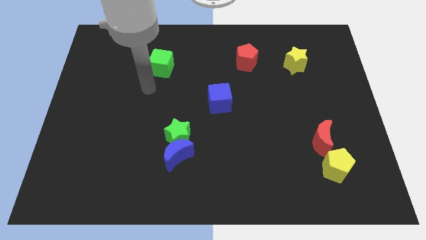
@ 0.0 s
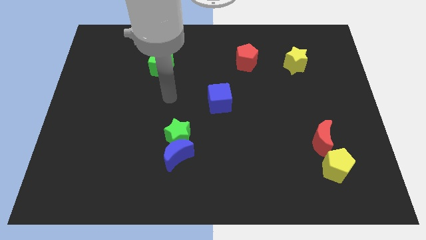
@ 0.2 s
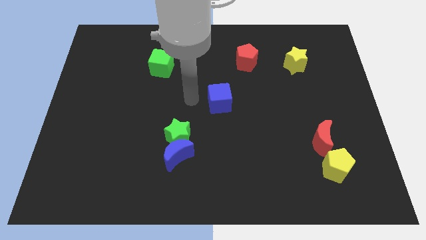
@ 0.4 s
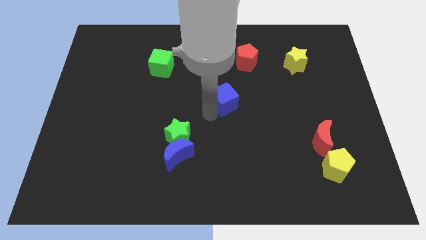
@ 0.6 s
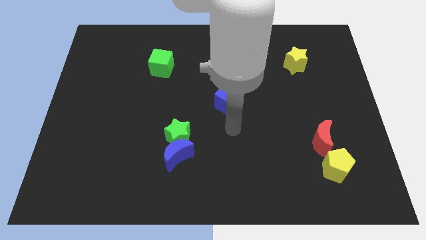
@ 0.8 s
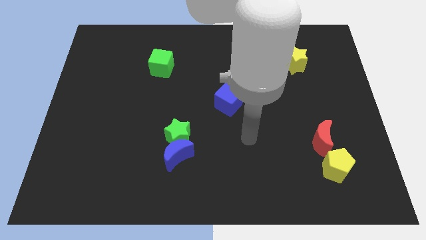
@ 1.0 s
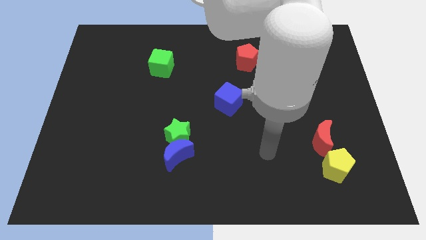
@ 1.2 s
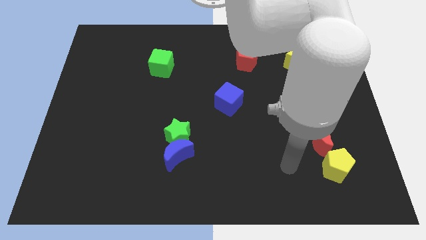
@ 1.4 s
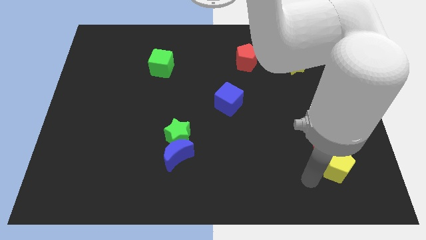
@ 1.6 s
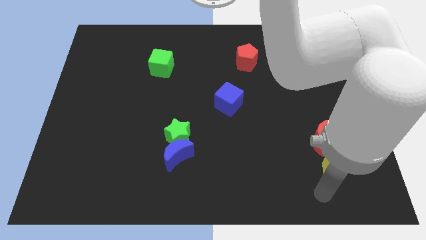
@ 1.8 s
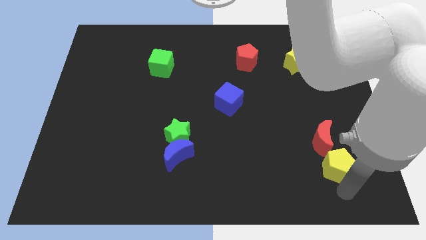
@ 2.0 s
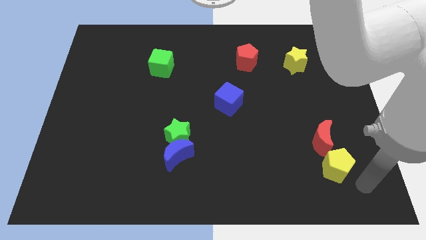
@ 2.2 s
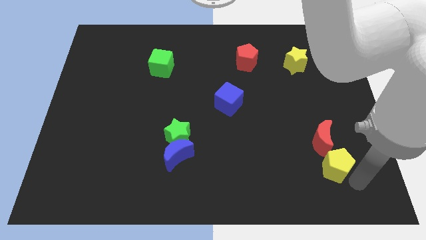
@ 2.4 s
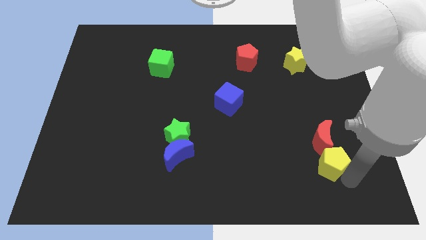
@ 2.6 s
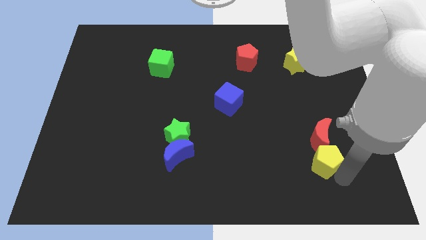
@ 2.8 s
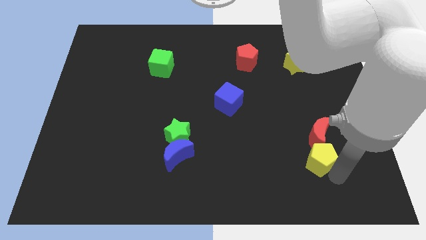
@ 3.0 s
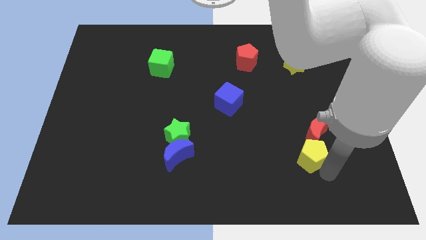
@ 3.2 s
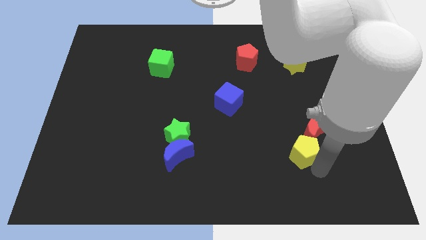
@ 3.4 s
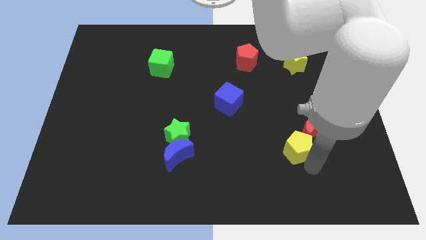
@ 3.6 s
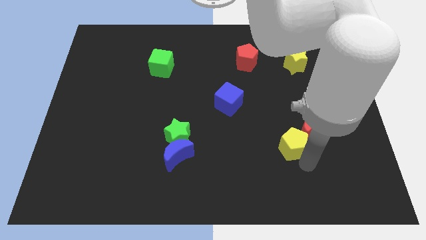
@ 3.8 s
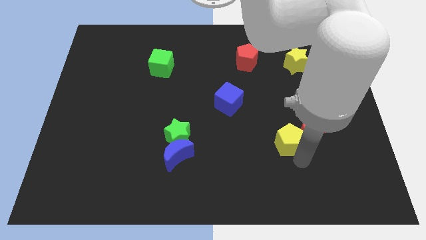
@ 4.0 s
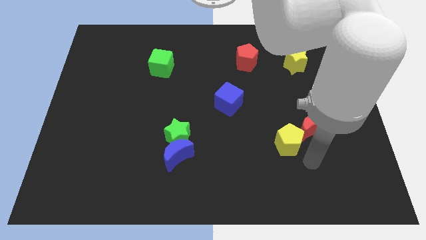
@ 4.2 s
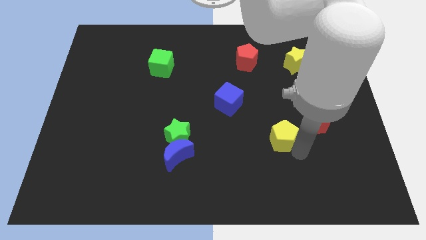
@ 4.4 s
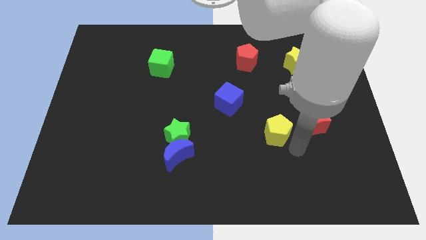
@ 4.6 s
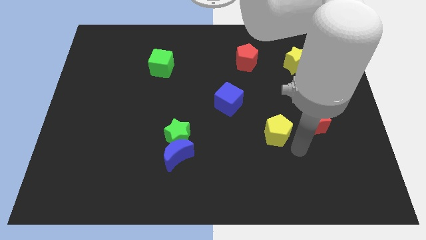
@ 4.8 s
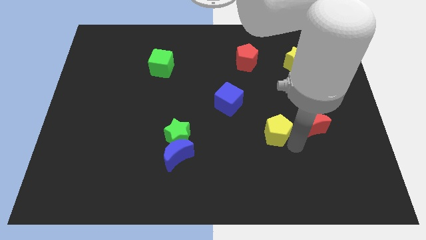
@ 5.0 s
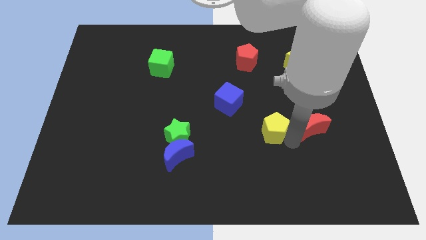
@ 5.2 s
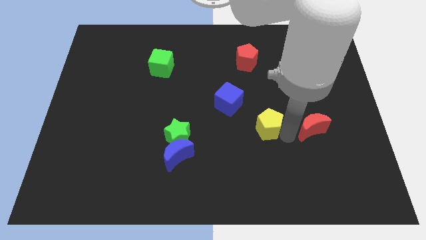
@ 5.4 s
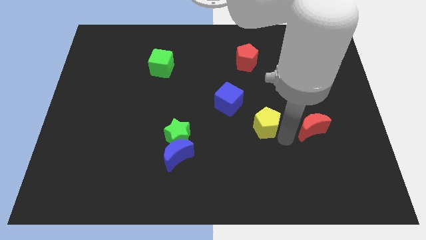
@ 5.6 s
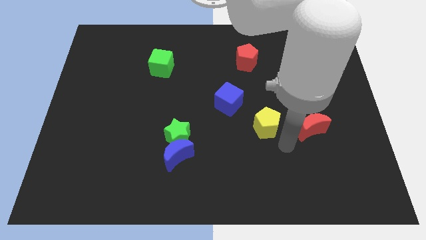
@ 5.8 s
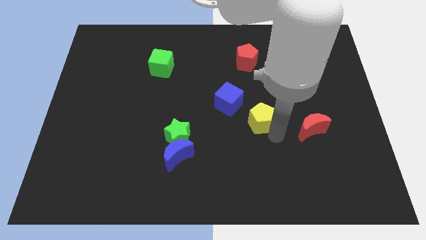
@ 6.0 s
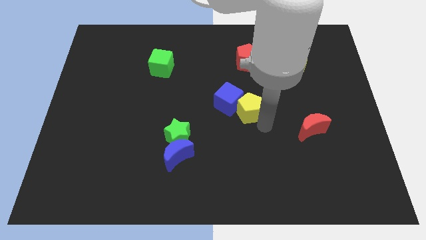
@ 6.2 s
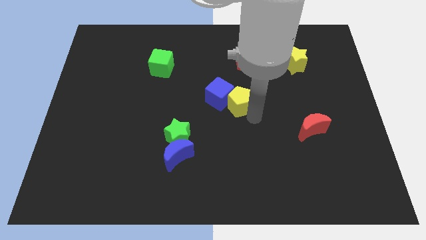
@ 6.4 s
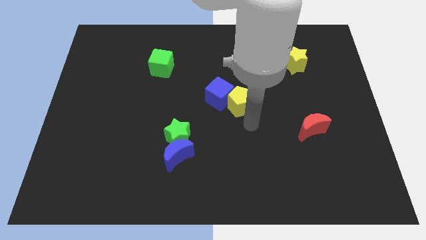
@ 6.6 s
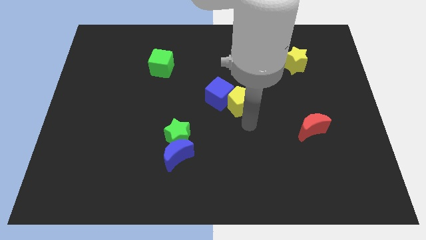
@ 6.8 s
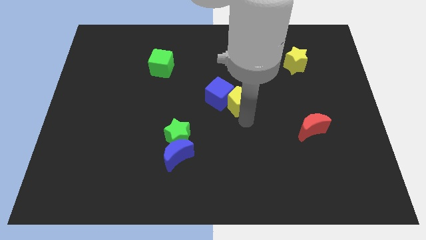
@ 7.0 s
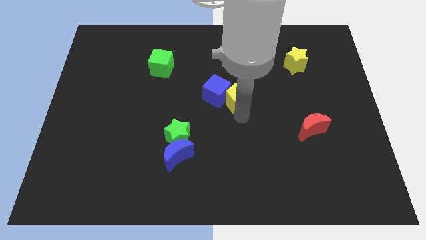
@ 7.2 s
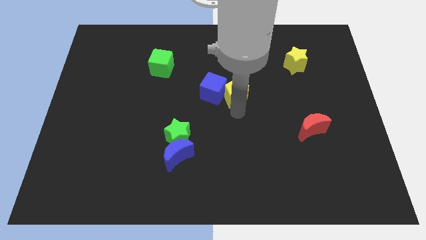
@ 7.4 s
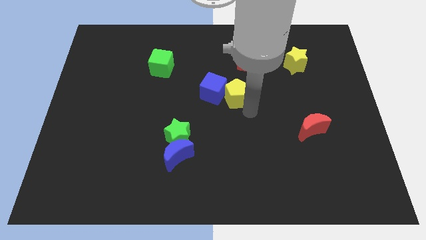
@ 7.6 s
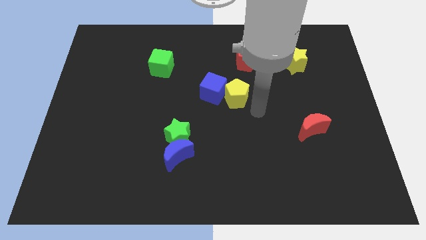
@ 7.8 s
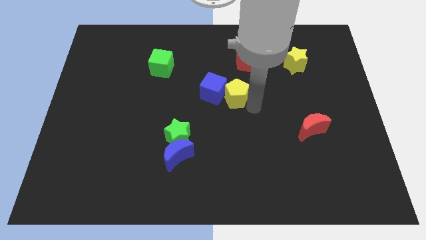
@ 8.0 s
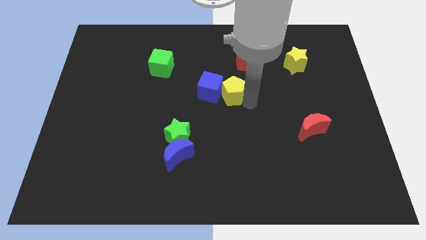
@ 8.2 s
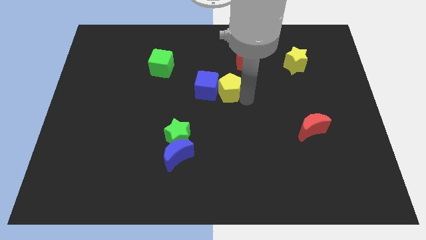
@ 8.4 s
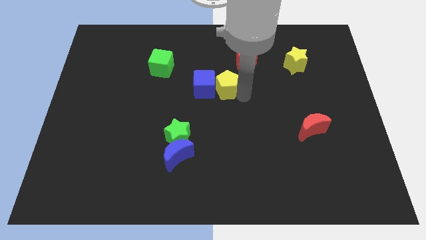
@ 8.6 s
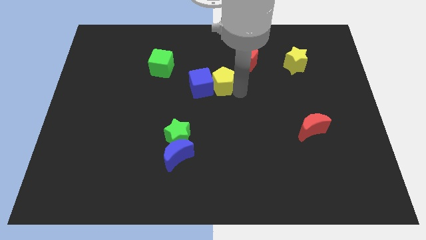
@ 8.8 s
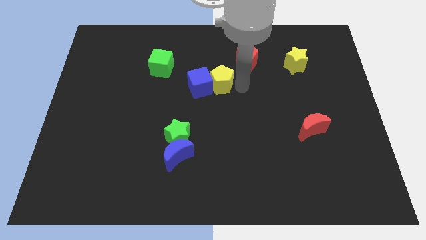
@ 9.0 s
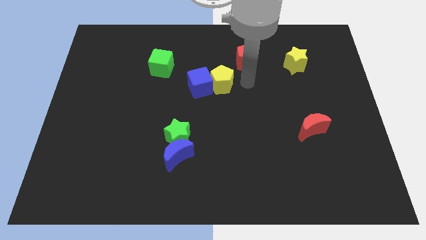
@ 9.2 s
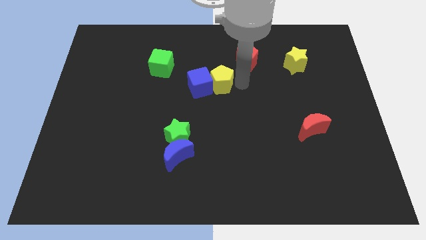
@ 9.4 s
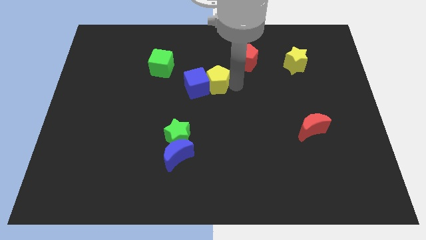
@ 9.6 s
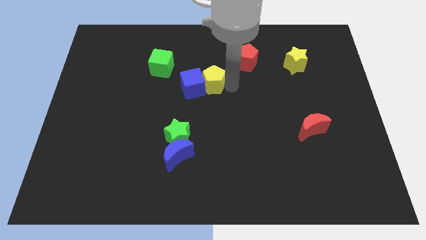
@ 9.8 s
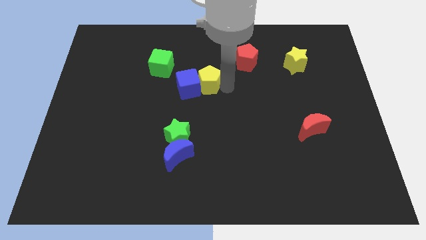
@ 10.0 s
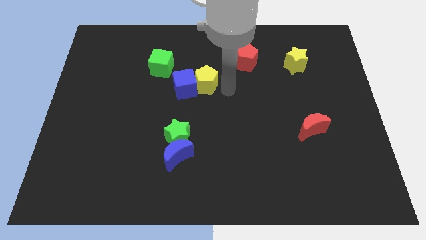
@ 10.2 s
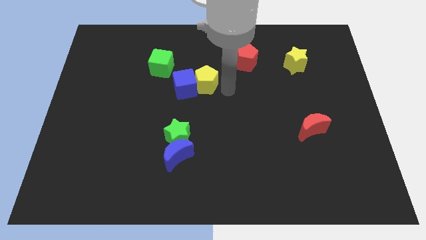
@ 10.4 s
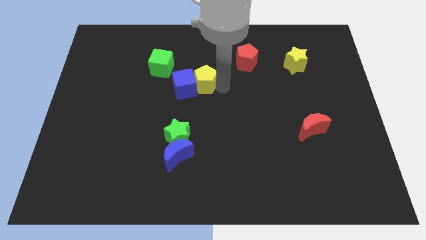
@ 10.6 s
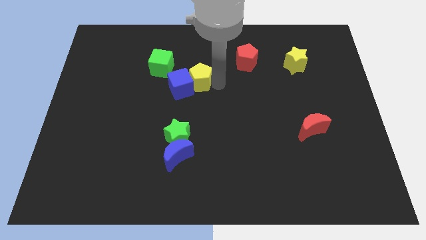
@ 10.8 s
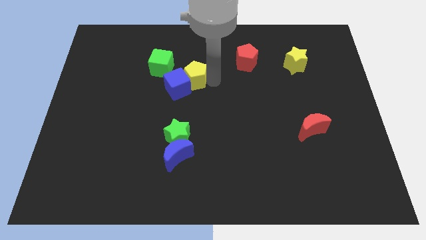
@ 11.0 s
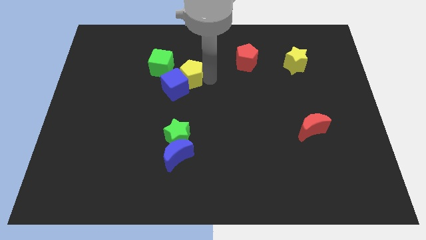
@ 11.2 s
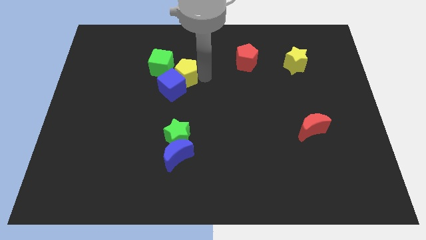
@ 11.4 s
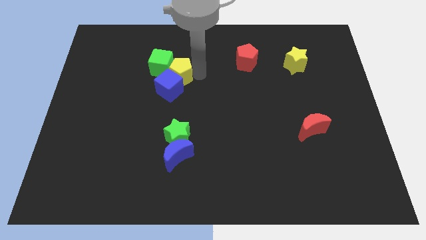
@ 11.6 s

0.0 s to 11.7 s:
put the yellow pentagon close to the green cube

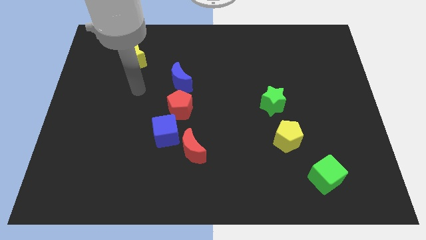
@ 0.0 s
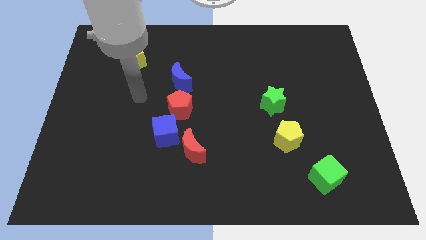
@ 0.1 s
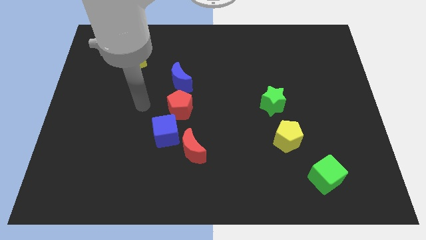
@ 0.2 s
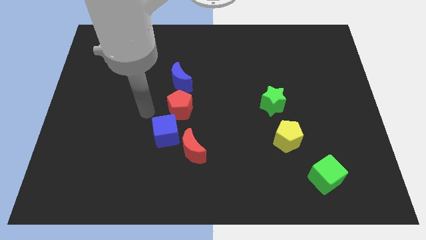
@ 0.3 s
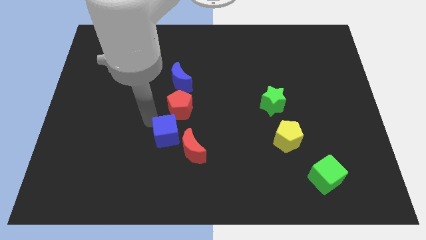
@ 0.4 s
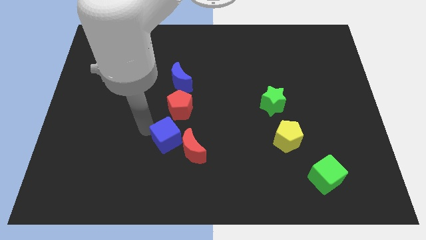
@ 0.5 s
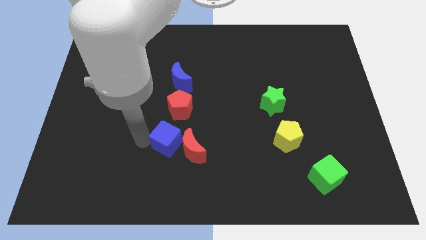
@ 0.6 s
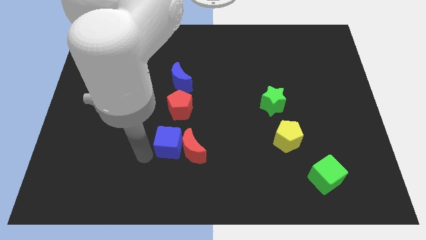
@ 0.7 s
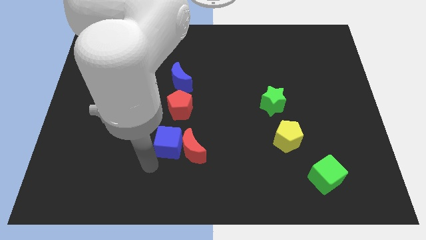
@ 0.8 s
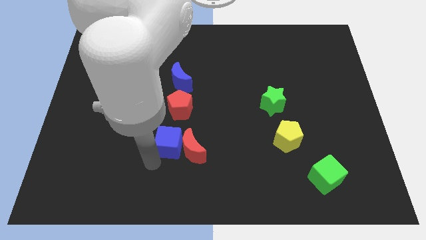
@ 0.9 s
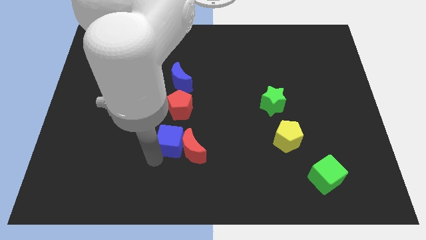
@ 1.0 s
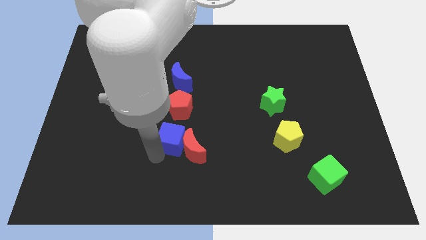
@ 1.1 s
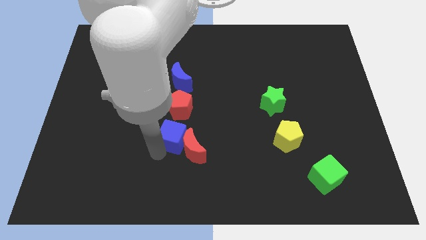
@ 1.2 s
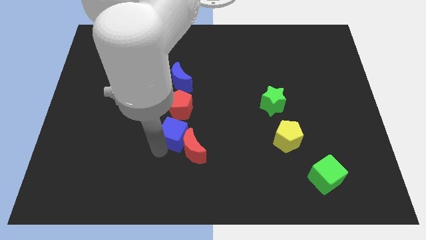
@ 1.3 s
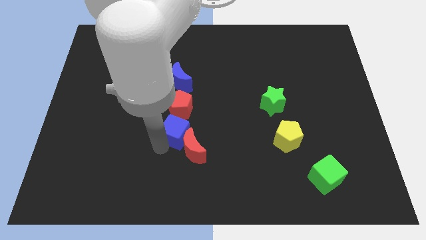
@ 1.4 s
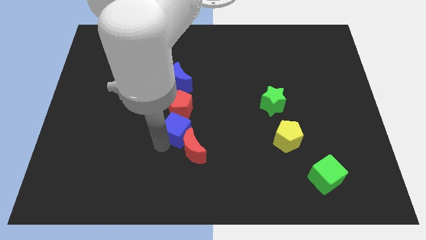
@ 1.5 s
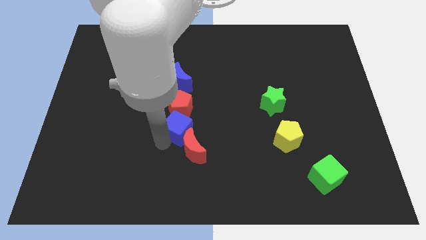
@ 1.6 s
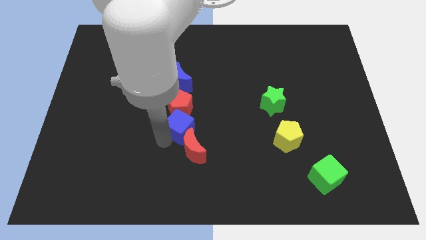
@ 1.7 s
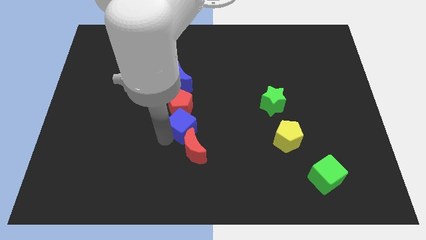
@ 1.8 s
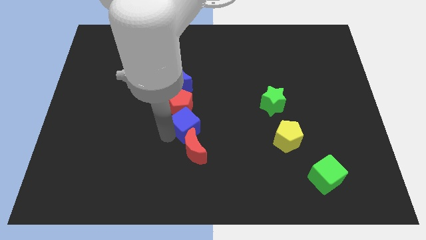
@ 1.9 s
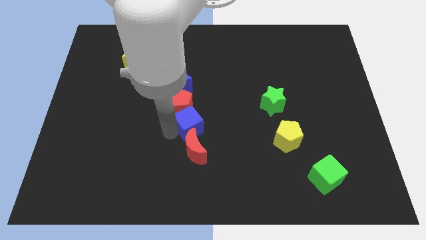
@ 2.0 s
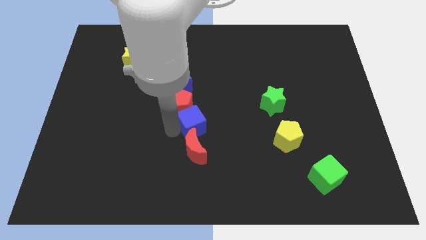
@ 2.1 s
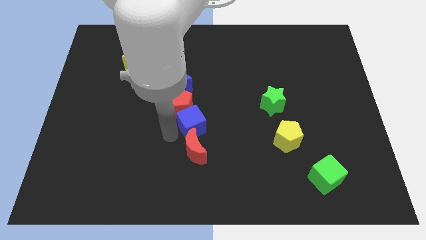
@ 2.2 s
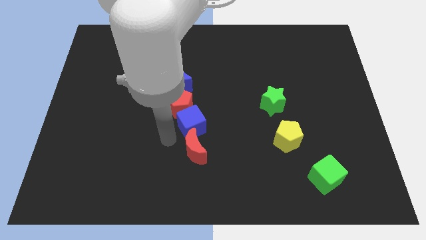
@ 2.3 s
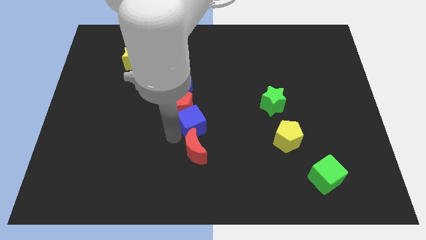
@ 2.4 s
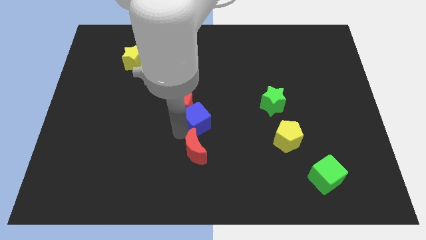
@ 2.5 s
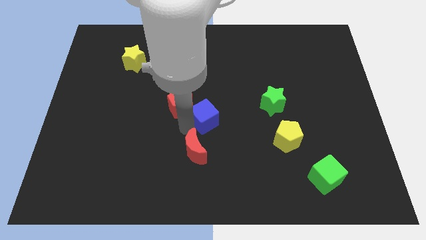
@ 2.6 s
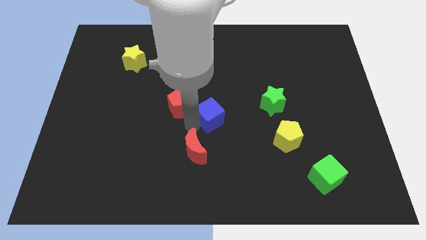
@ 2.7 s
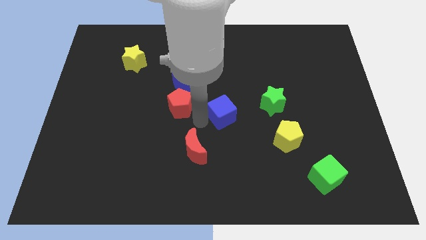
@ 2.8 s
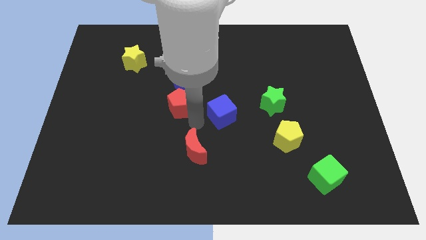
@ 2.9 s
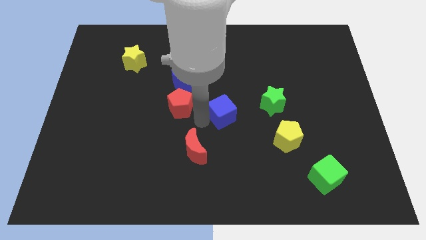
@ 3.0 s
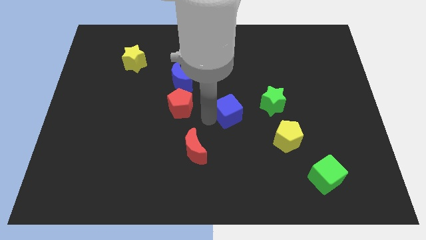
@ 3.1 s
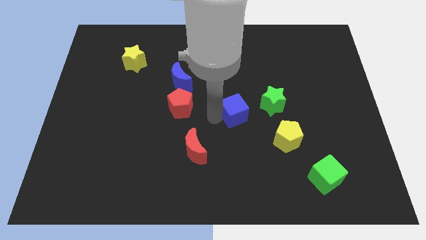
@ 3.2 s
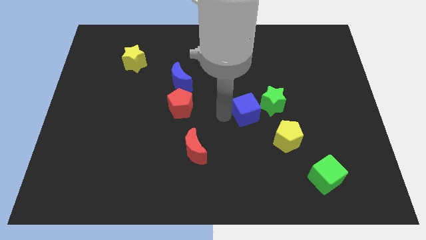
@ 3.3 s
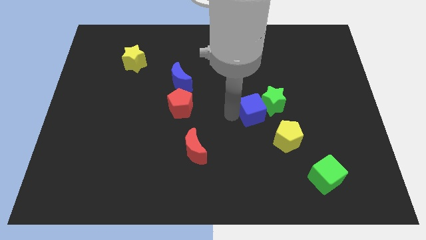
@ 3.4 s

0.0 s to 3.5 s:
slide the blue cube towards the green star
